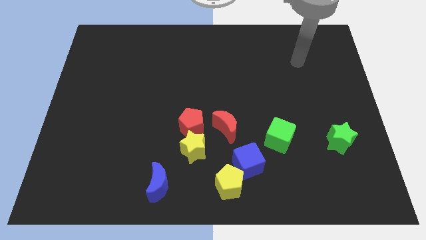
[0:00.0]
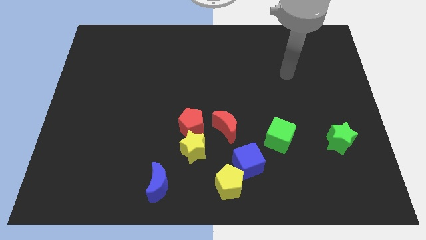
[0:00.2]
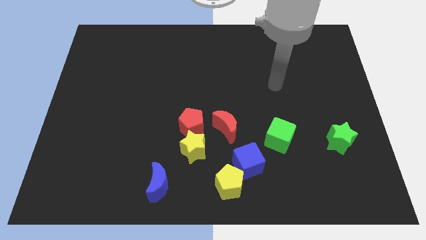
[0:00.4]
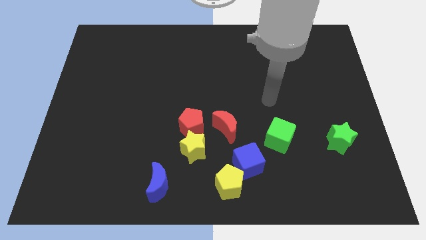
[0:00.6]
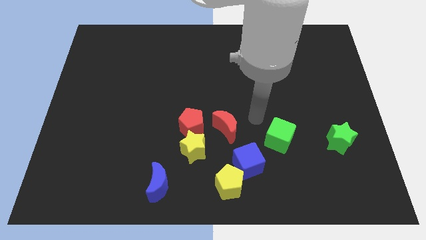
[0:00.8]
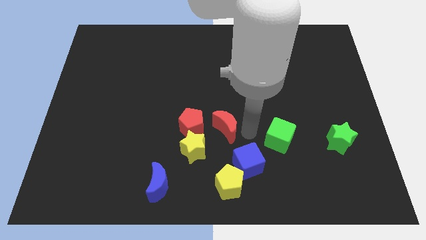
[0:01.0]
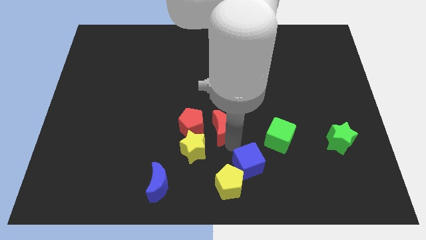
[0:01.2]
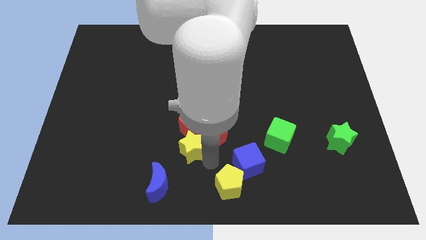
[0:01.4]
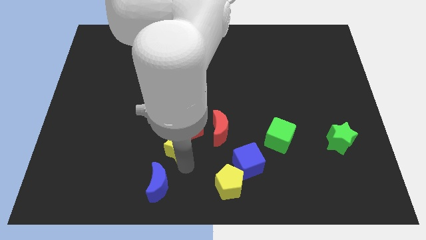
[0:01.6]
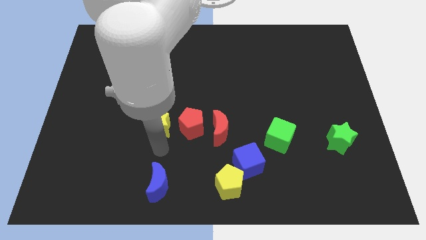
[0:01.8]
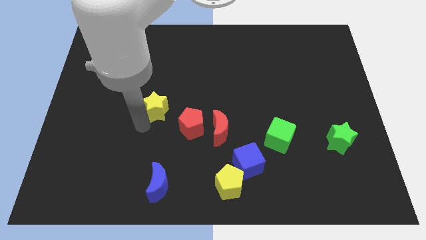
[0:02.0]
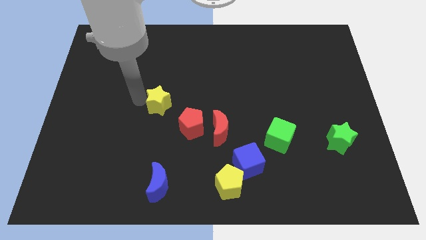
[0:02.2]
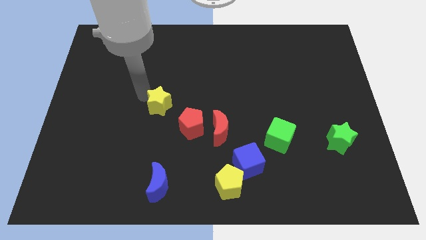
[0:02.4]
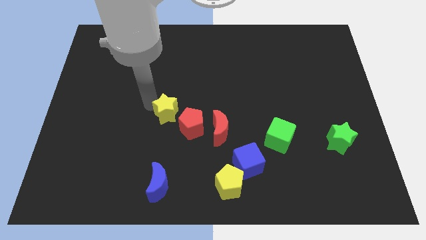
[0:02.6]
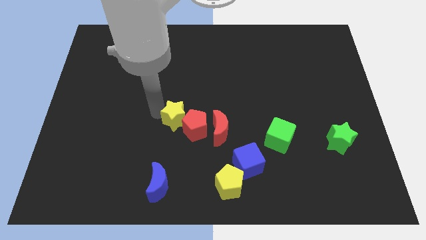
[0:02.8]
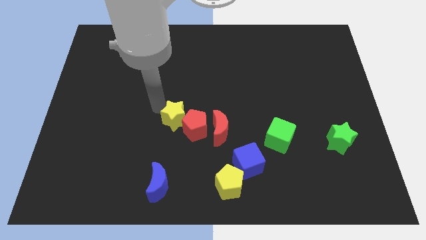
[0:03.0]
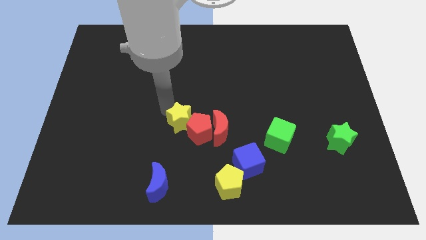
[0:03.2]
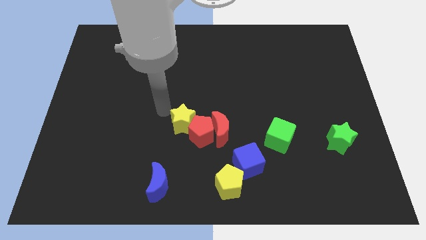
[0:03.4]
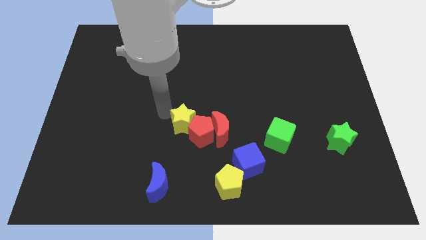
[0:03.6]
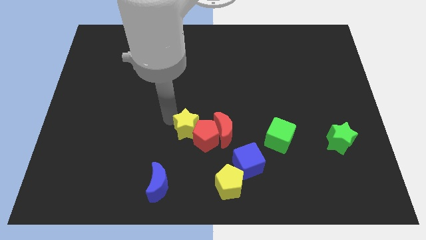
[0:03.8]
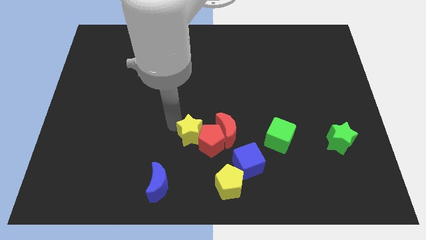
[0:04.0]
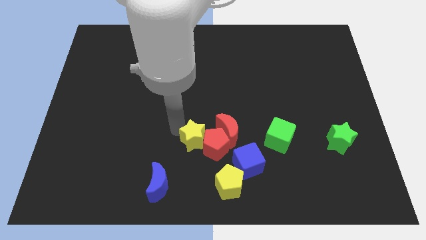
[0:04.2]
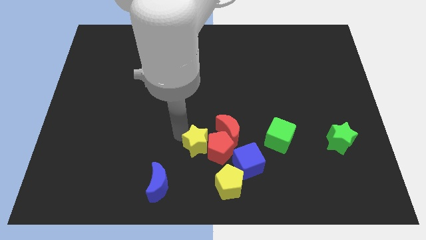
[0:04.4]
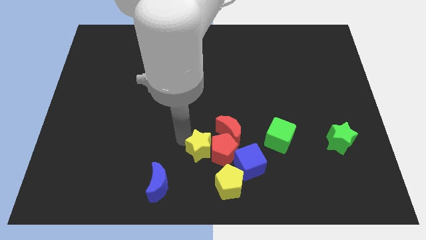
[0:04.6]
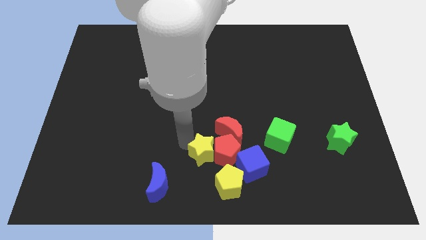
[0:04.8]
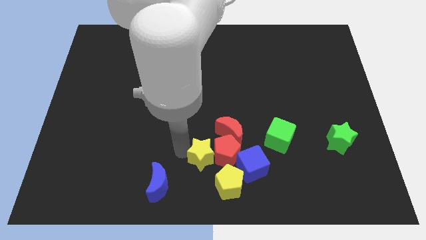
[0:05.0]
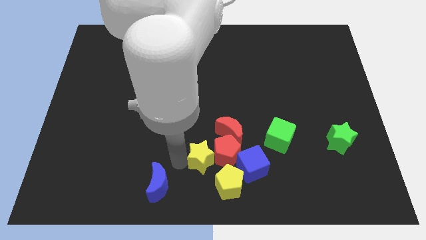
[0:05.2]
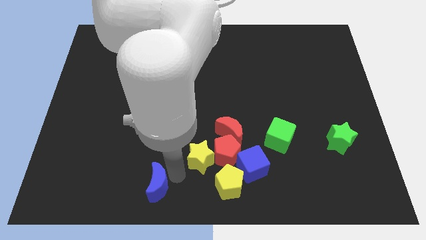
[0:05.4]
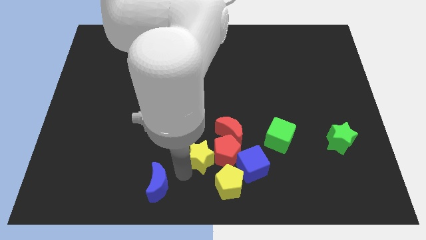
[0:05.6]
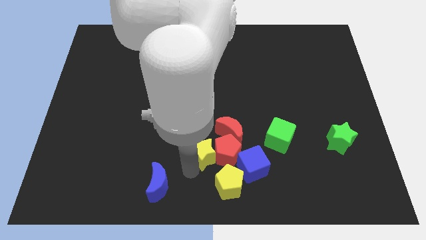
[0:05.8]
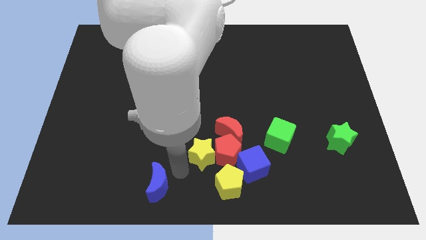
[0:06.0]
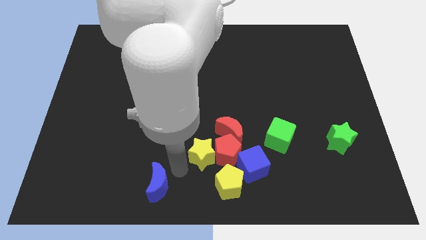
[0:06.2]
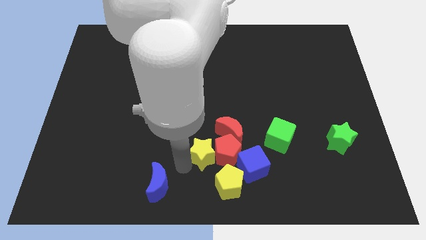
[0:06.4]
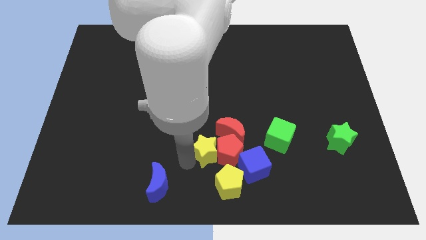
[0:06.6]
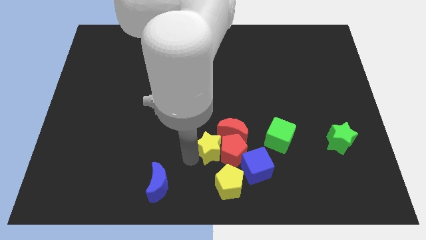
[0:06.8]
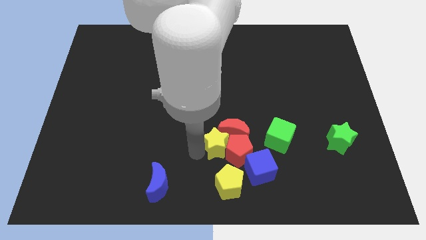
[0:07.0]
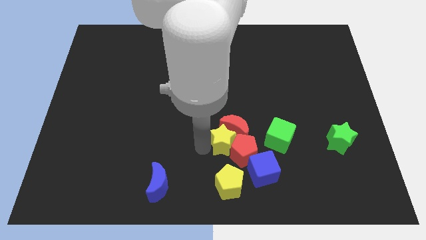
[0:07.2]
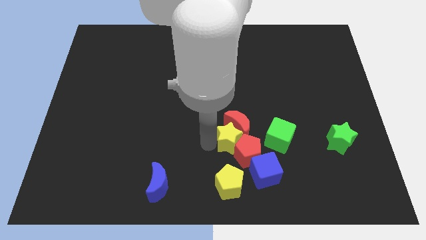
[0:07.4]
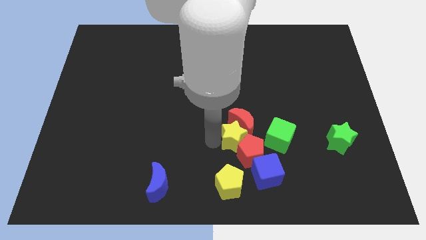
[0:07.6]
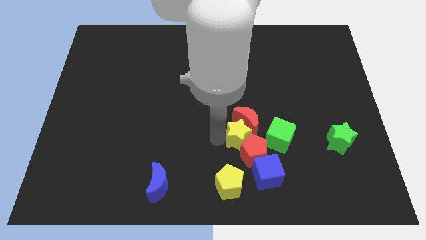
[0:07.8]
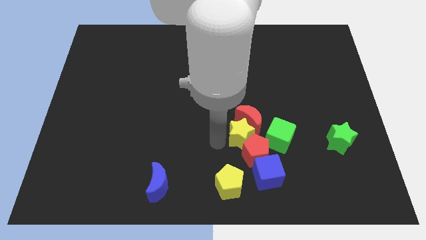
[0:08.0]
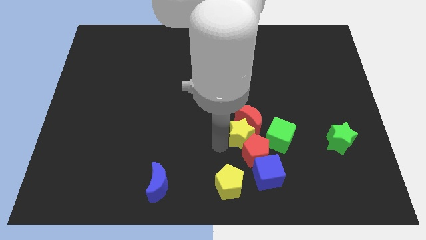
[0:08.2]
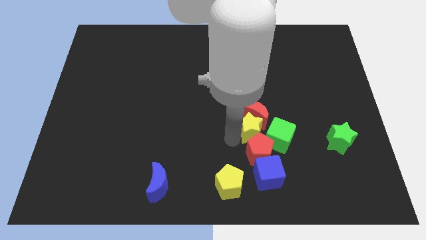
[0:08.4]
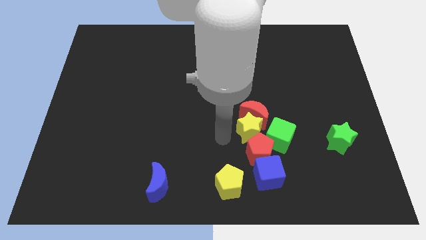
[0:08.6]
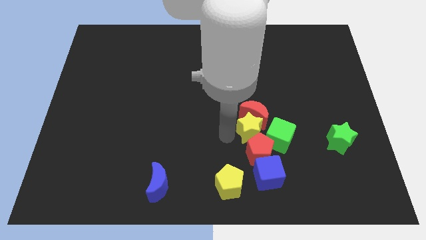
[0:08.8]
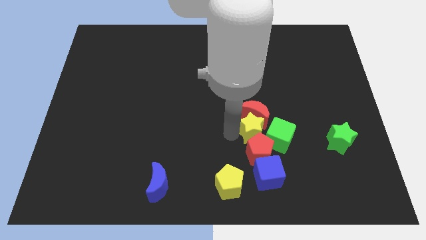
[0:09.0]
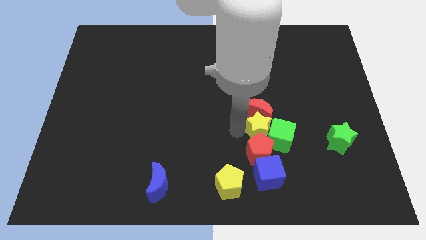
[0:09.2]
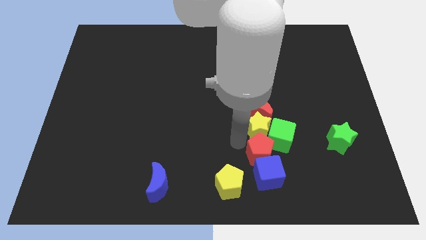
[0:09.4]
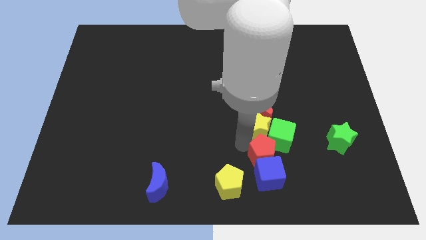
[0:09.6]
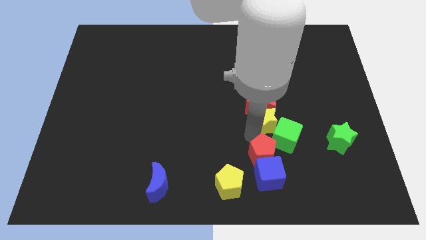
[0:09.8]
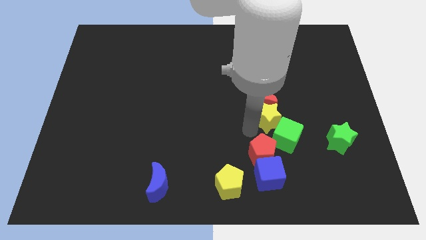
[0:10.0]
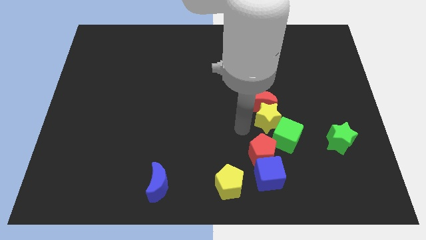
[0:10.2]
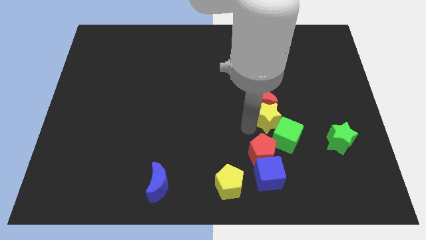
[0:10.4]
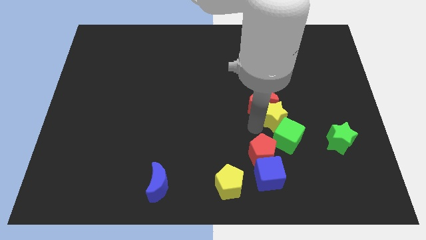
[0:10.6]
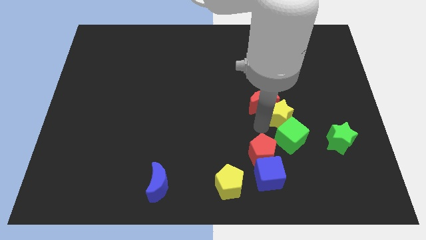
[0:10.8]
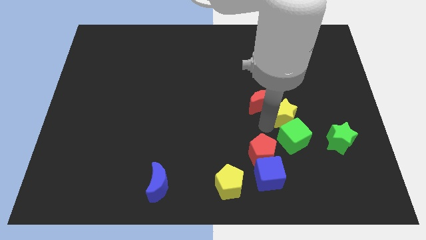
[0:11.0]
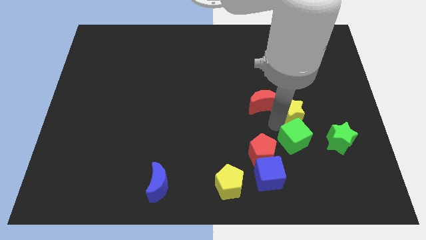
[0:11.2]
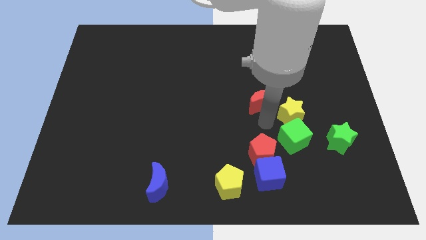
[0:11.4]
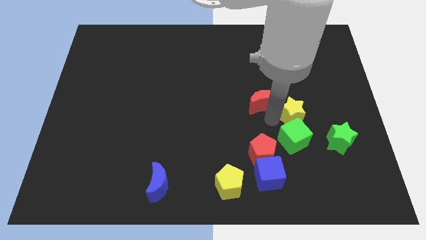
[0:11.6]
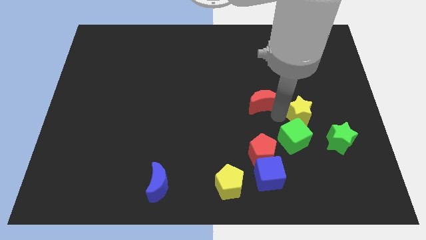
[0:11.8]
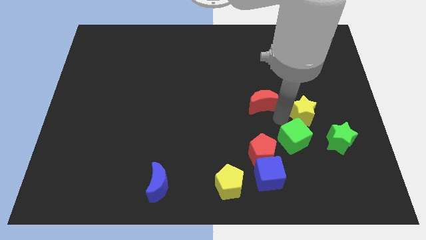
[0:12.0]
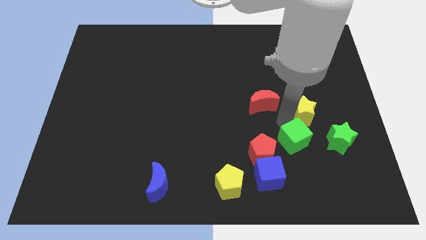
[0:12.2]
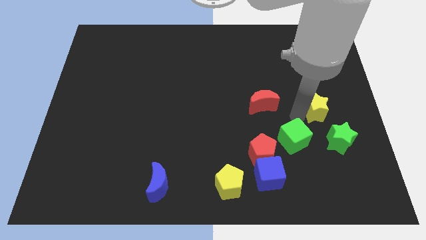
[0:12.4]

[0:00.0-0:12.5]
push the yellow star to the top side of the green star
